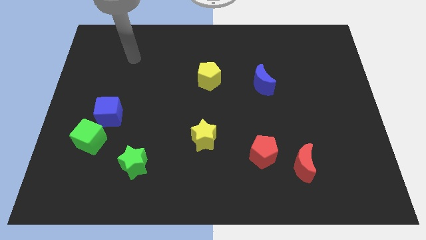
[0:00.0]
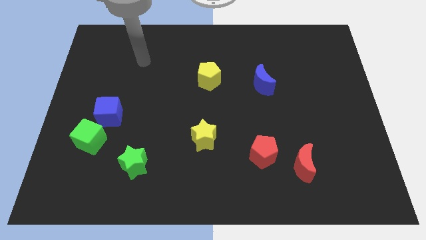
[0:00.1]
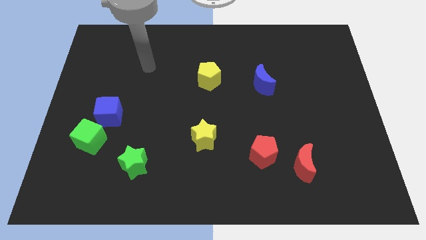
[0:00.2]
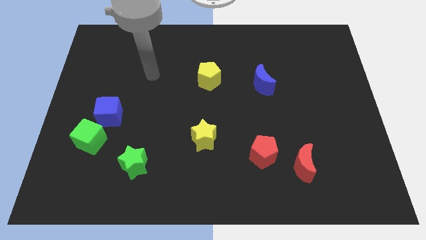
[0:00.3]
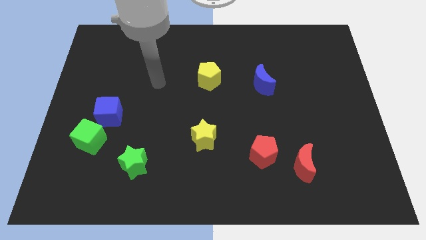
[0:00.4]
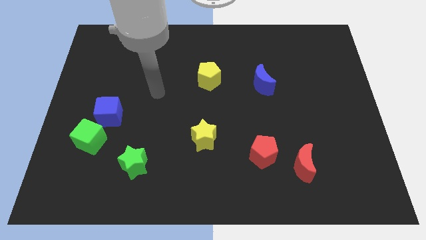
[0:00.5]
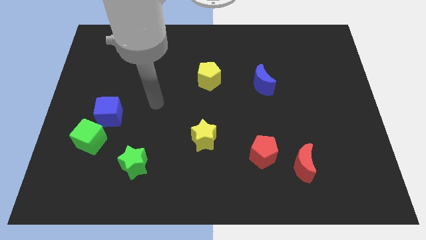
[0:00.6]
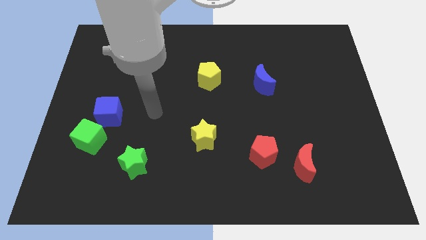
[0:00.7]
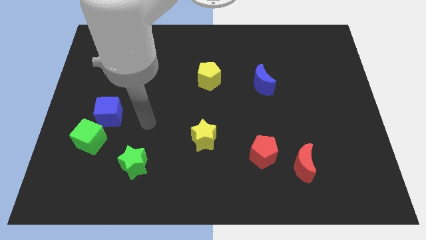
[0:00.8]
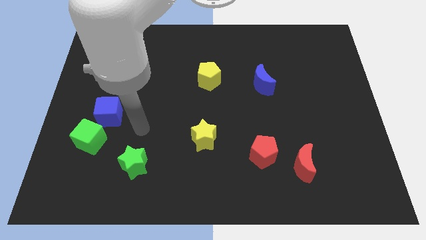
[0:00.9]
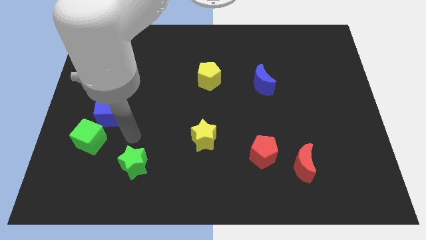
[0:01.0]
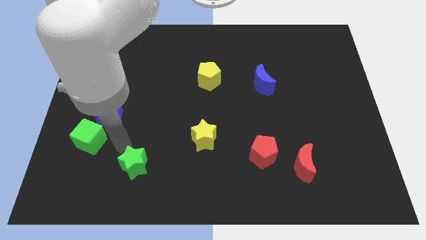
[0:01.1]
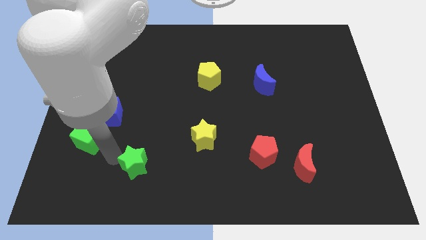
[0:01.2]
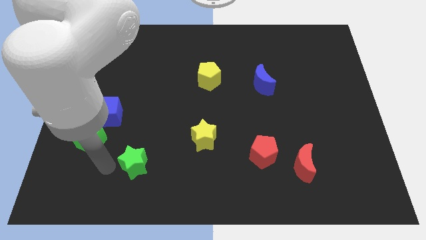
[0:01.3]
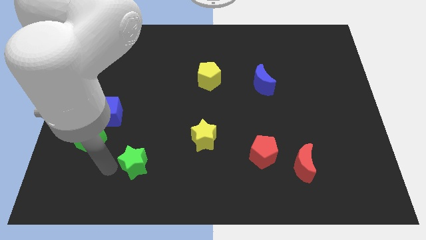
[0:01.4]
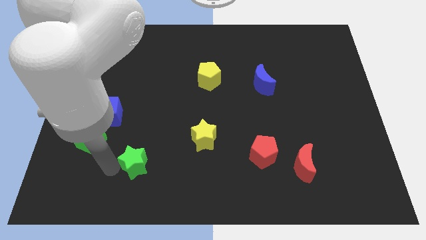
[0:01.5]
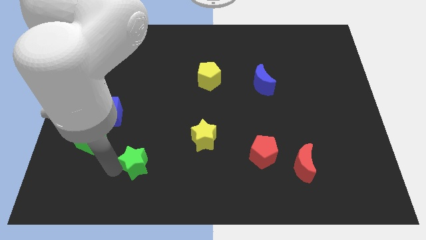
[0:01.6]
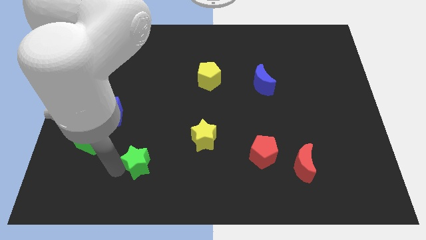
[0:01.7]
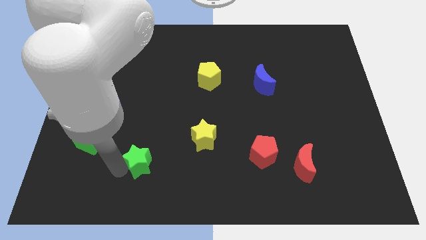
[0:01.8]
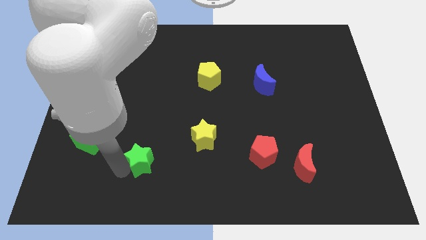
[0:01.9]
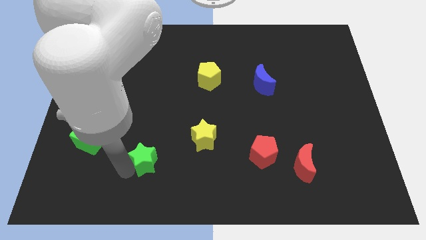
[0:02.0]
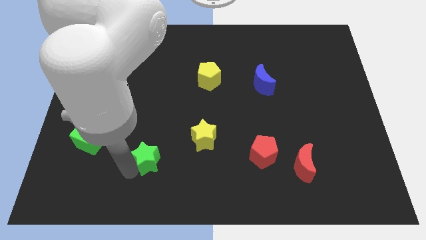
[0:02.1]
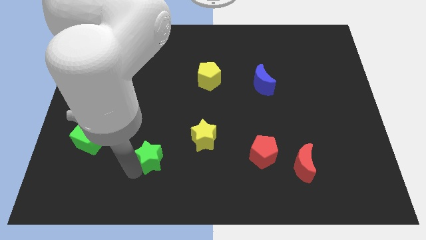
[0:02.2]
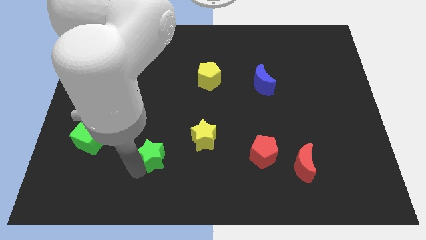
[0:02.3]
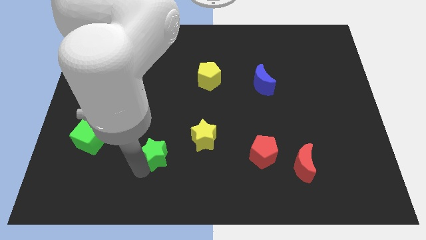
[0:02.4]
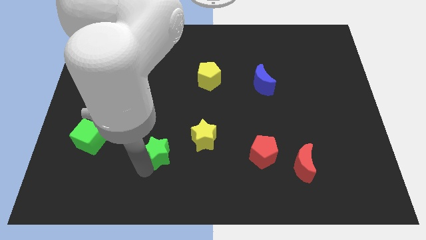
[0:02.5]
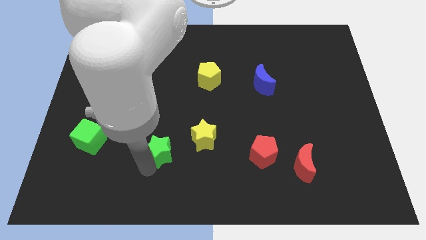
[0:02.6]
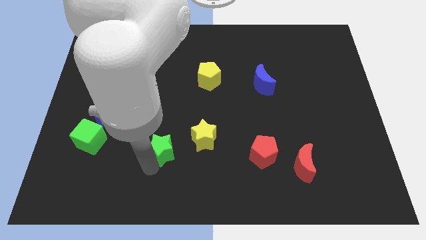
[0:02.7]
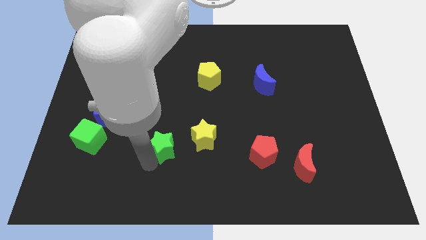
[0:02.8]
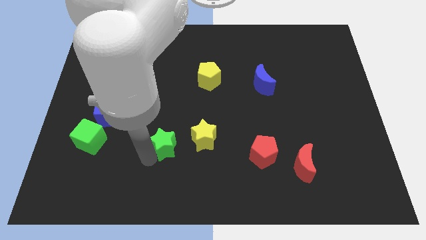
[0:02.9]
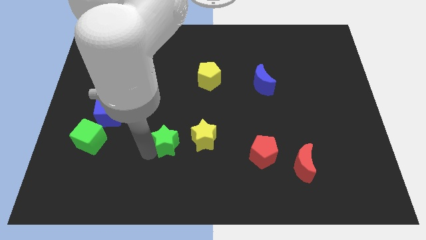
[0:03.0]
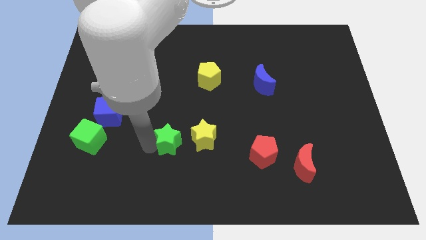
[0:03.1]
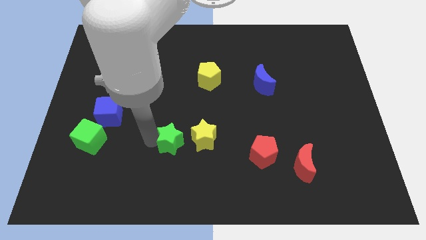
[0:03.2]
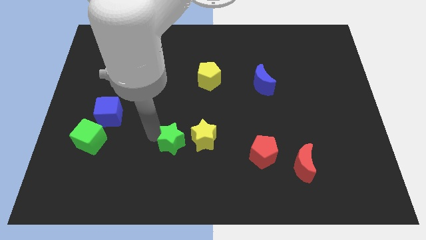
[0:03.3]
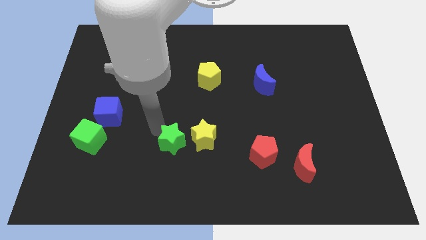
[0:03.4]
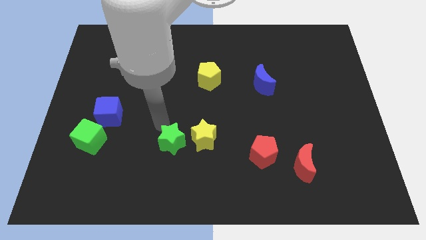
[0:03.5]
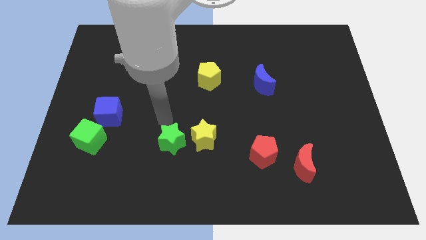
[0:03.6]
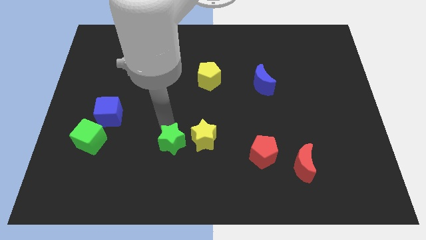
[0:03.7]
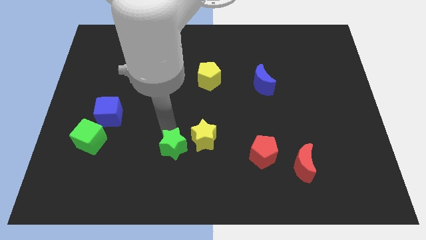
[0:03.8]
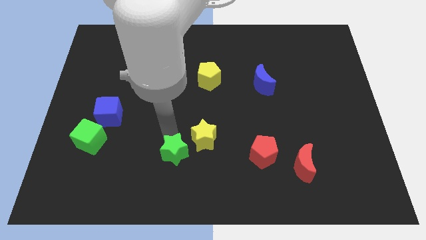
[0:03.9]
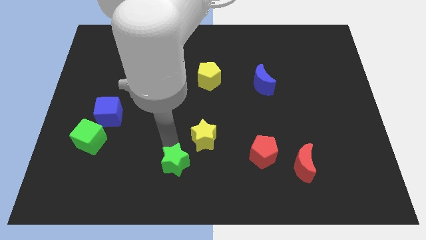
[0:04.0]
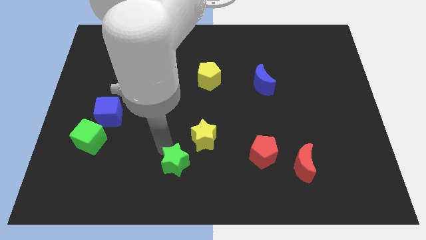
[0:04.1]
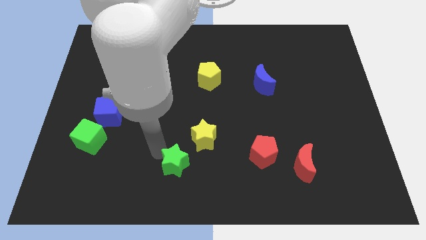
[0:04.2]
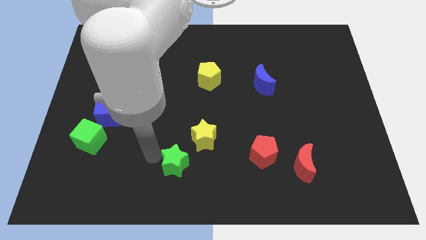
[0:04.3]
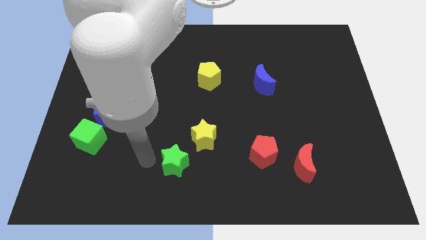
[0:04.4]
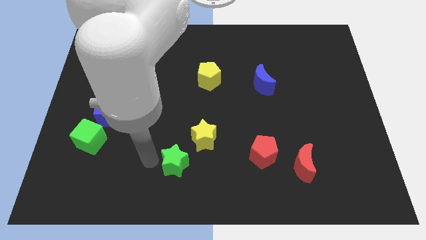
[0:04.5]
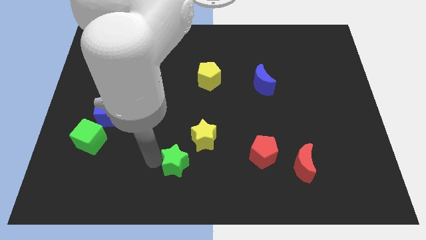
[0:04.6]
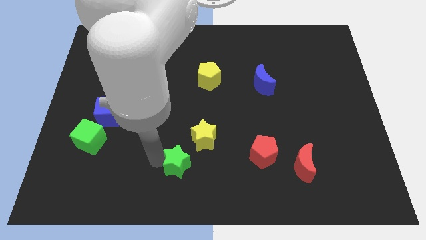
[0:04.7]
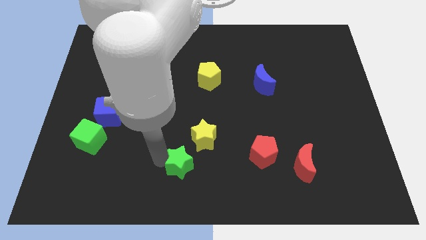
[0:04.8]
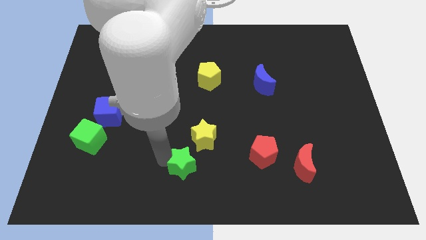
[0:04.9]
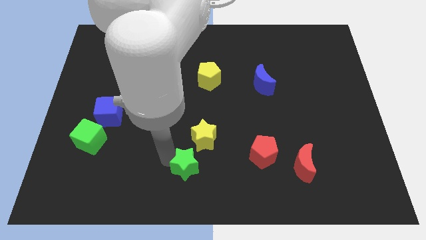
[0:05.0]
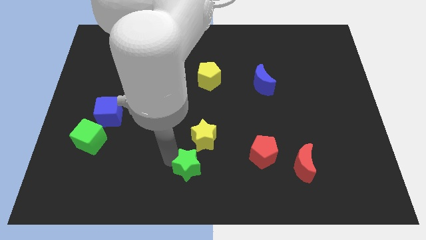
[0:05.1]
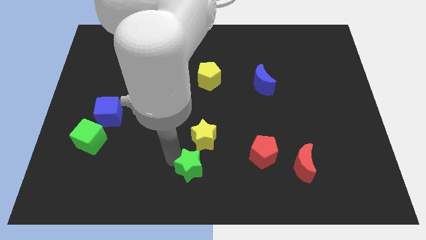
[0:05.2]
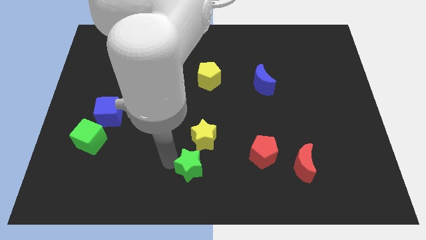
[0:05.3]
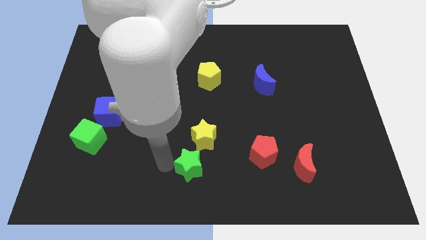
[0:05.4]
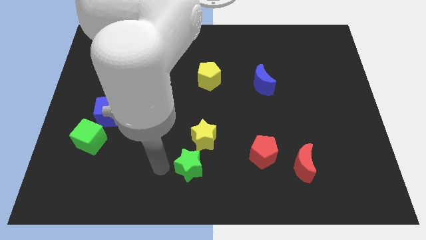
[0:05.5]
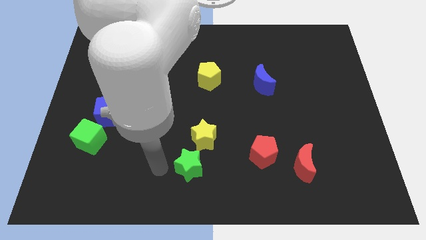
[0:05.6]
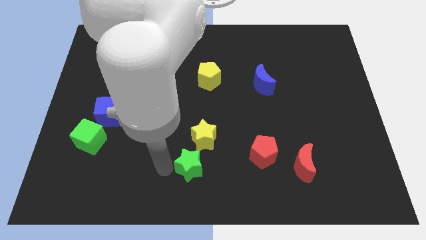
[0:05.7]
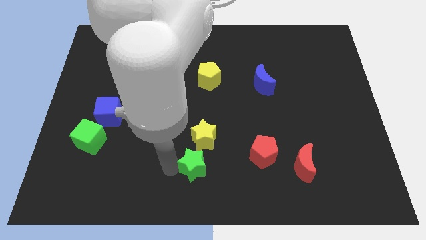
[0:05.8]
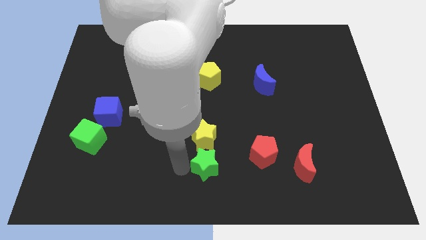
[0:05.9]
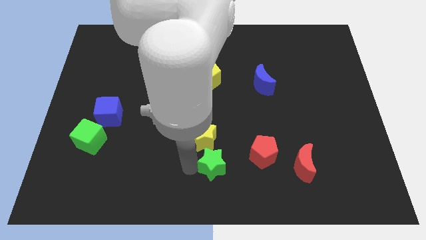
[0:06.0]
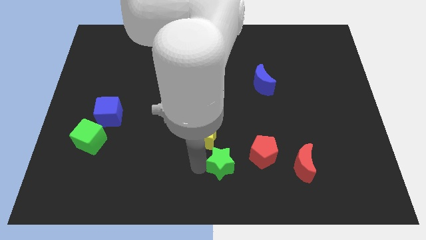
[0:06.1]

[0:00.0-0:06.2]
push the green star to the bottom left side of the red pentagon

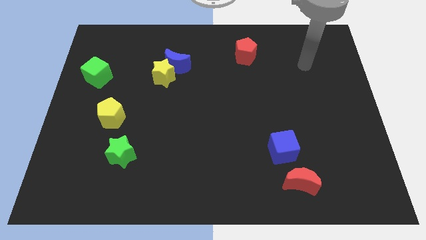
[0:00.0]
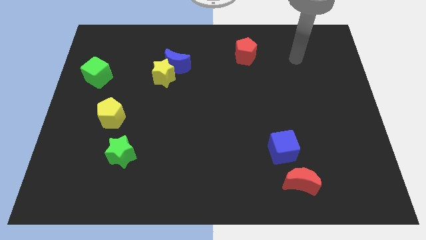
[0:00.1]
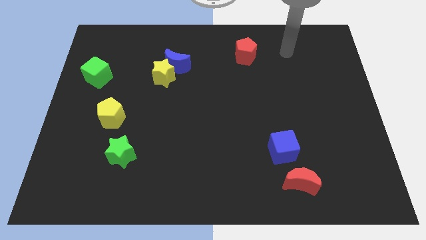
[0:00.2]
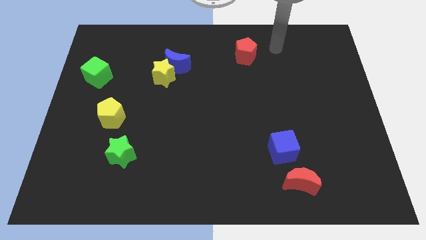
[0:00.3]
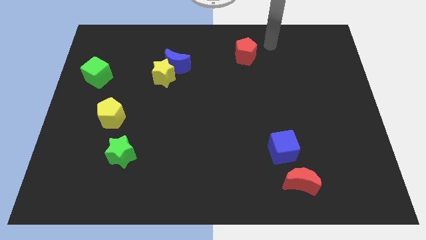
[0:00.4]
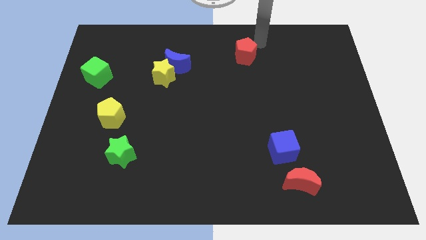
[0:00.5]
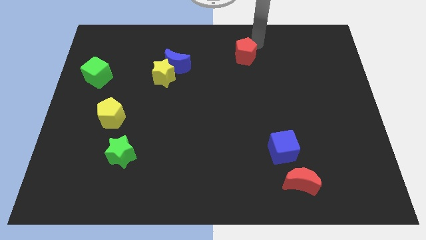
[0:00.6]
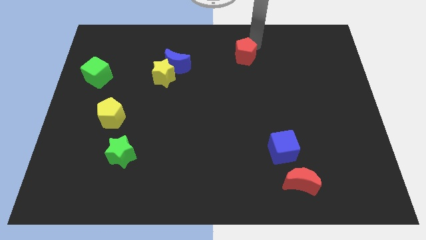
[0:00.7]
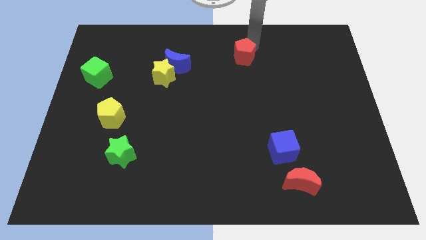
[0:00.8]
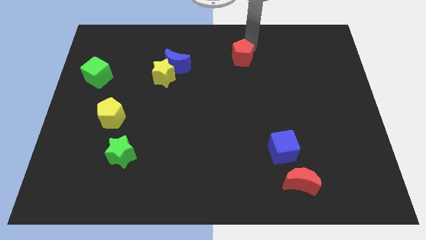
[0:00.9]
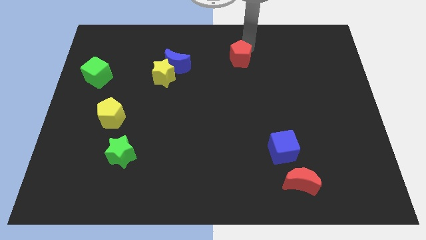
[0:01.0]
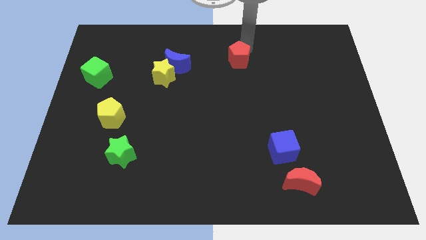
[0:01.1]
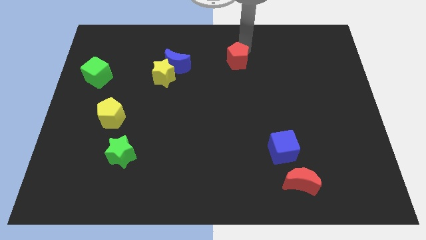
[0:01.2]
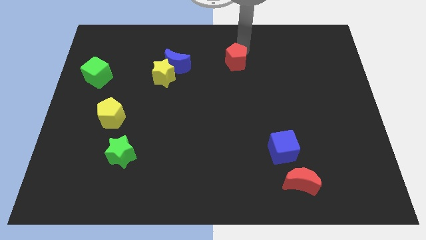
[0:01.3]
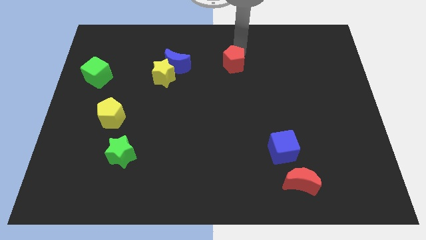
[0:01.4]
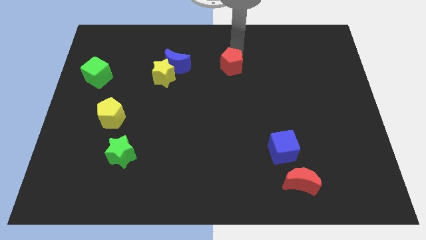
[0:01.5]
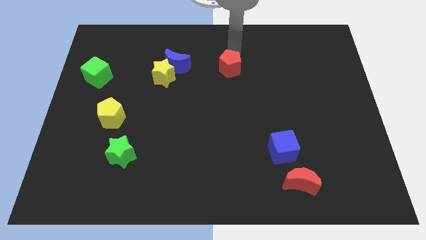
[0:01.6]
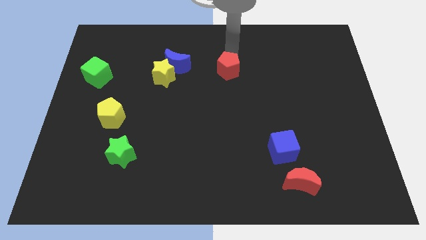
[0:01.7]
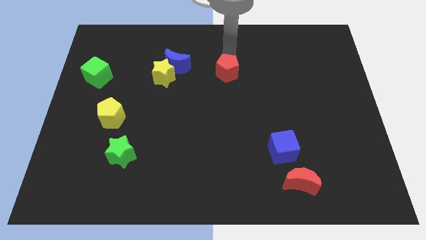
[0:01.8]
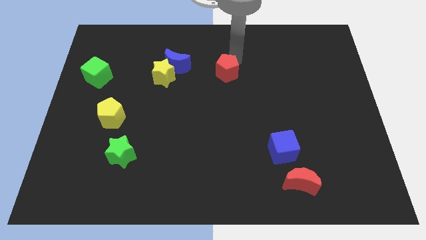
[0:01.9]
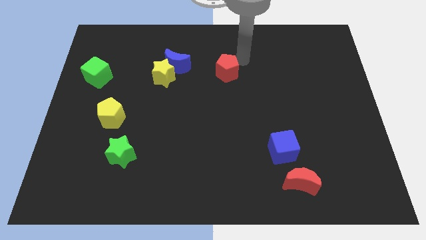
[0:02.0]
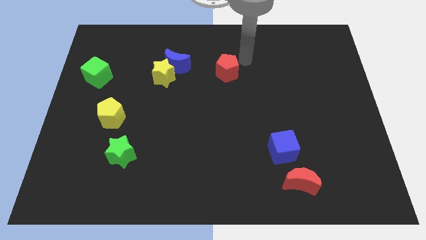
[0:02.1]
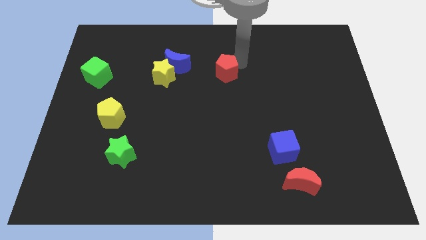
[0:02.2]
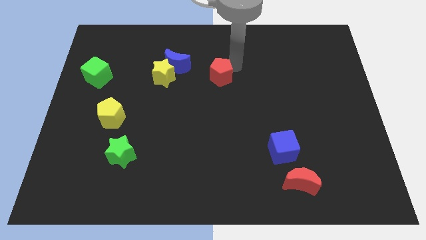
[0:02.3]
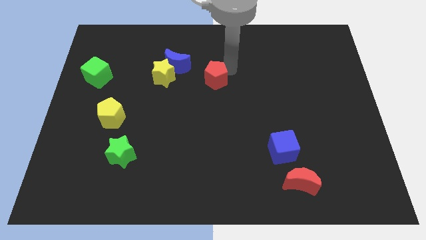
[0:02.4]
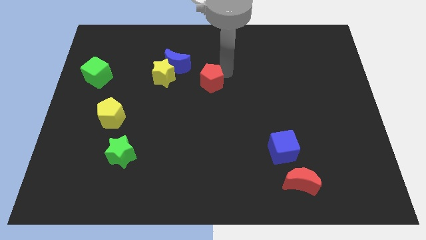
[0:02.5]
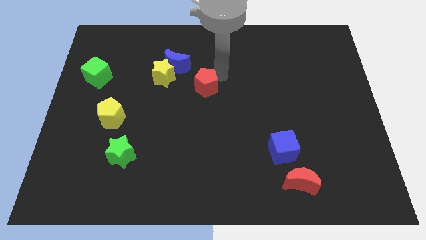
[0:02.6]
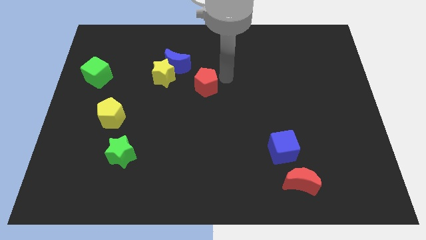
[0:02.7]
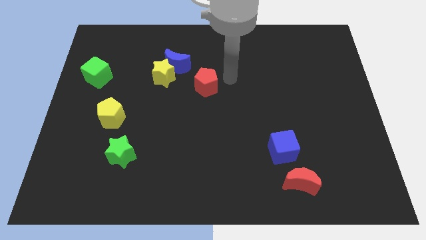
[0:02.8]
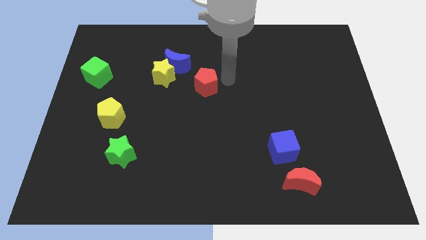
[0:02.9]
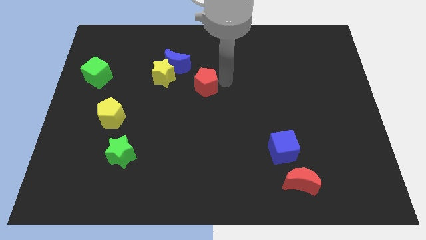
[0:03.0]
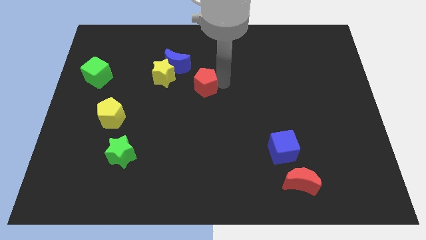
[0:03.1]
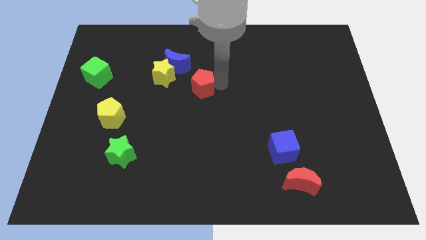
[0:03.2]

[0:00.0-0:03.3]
slide the red pentagon diagonally down and to the right of the yellow star
